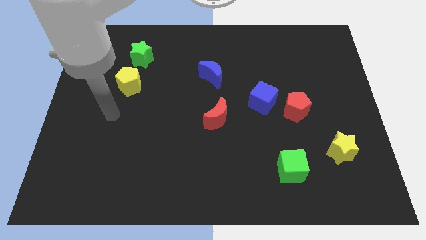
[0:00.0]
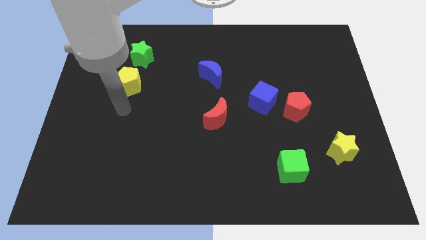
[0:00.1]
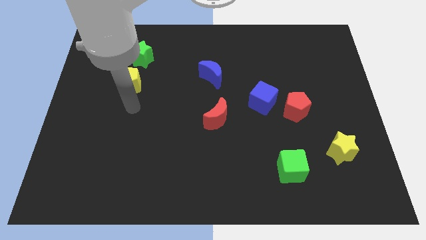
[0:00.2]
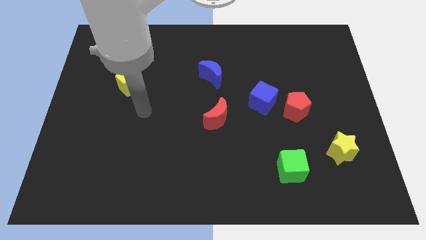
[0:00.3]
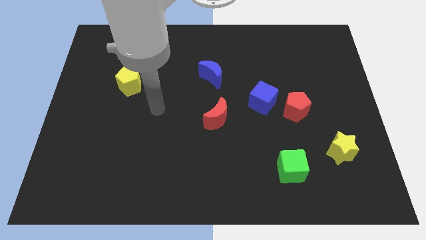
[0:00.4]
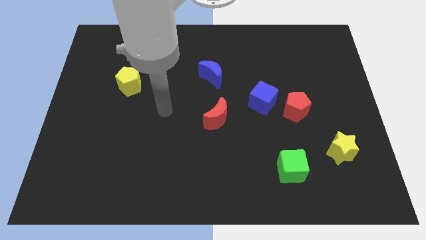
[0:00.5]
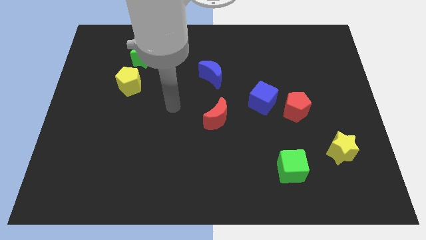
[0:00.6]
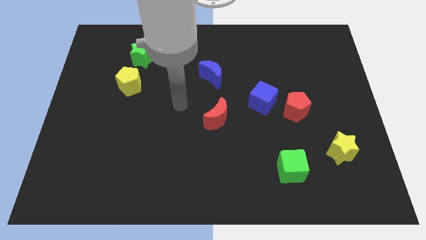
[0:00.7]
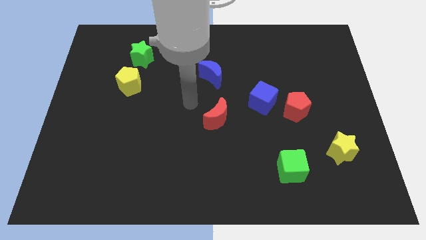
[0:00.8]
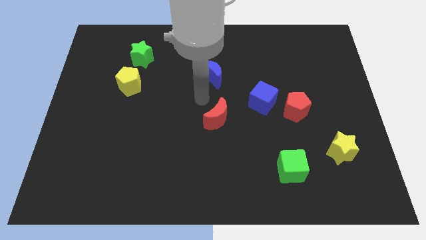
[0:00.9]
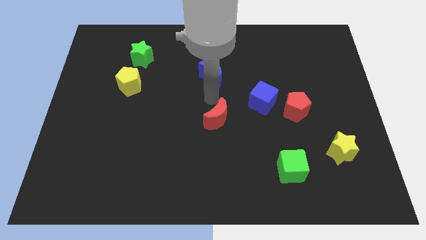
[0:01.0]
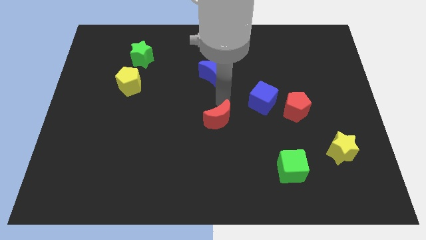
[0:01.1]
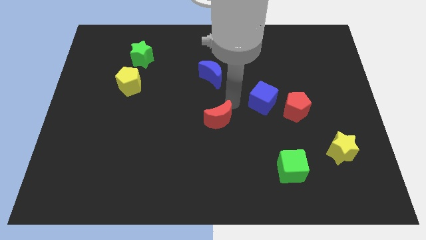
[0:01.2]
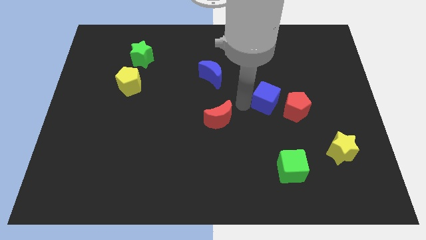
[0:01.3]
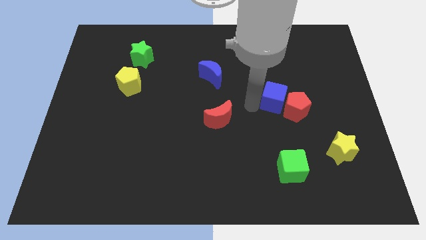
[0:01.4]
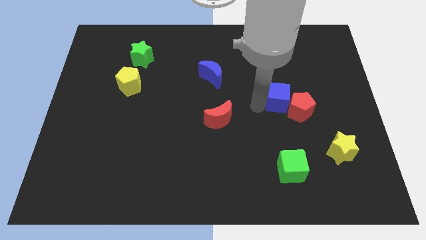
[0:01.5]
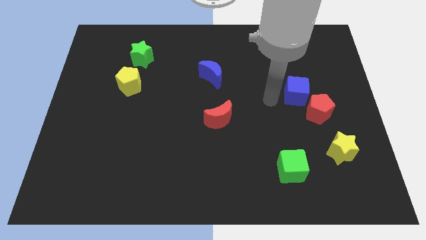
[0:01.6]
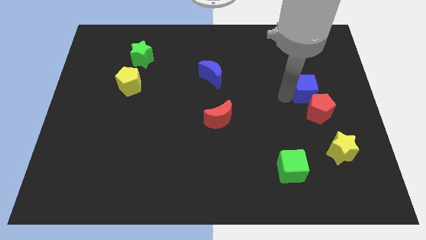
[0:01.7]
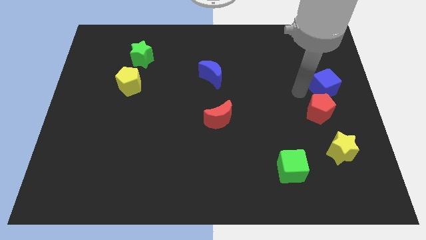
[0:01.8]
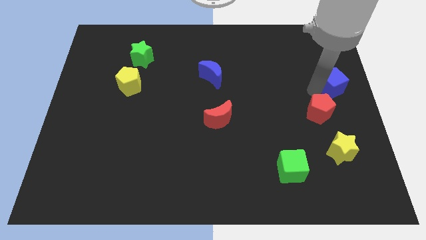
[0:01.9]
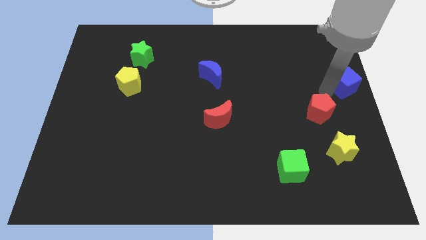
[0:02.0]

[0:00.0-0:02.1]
pull the red pentagon apart from the blue cube

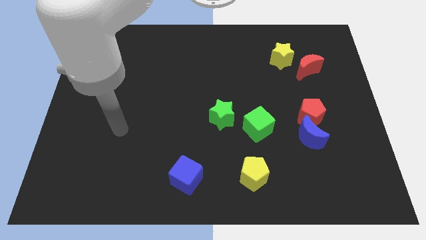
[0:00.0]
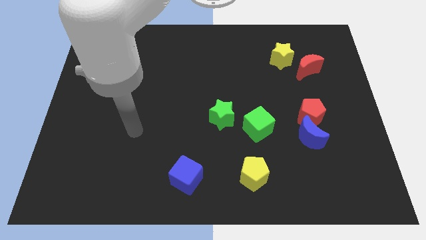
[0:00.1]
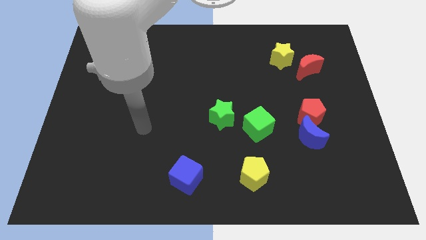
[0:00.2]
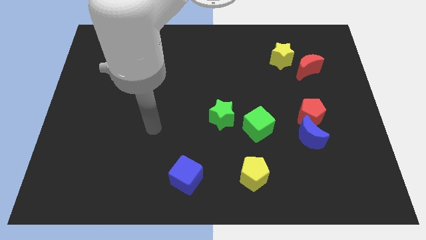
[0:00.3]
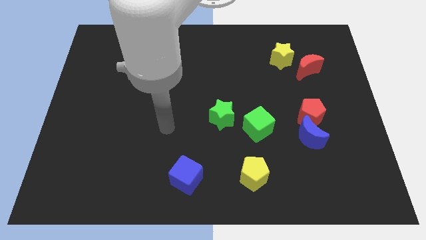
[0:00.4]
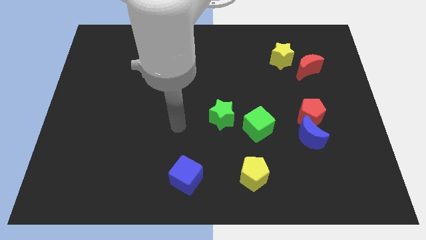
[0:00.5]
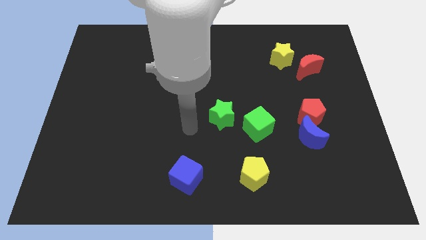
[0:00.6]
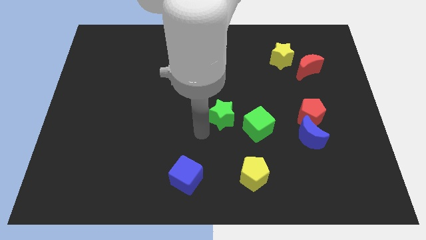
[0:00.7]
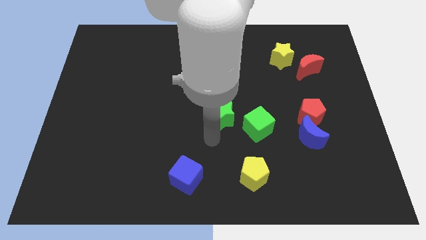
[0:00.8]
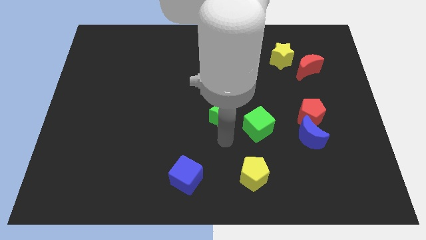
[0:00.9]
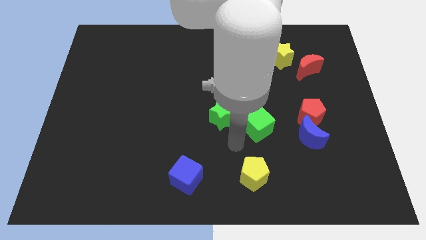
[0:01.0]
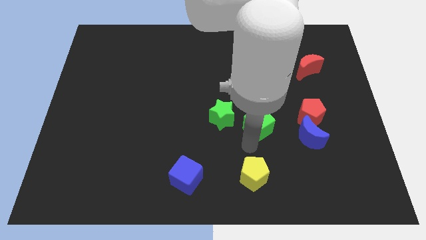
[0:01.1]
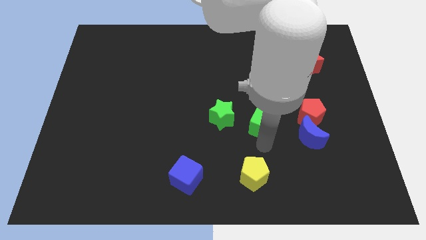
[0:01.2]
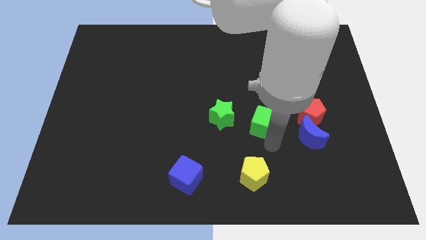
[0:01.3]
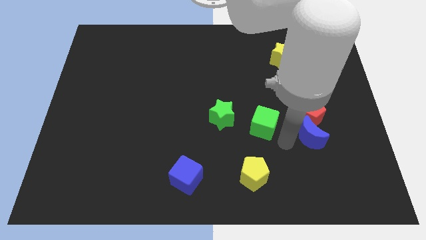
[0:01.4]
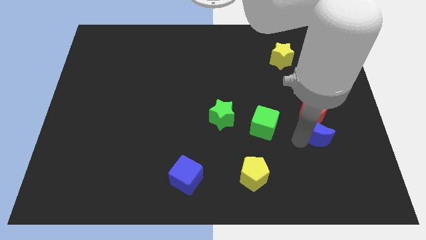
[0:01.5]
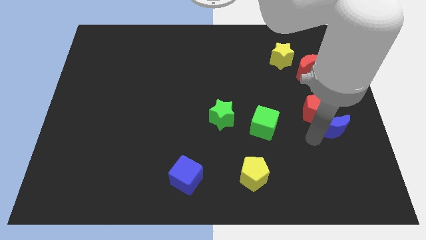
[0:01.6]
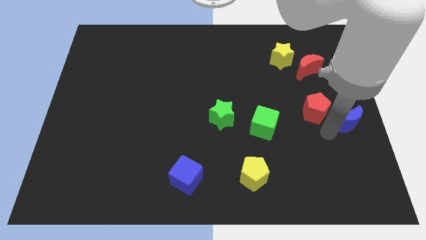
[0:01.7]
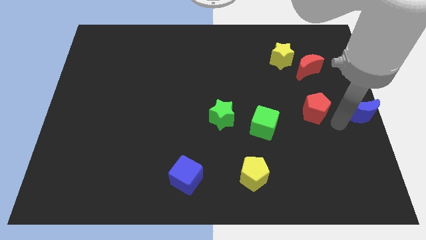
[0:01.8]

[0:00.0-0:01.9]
move the red pentagon away from the blue moon

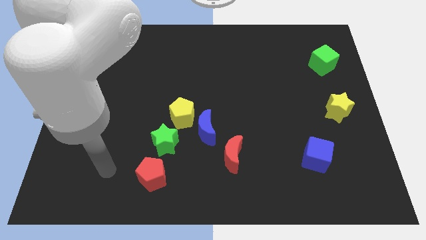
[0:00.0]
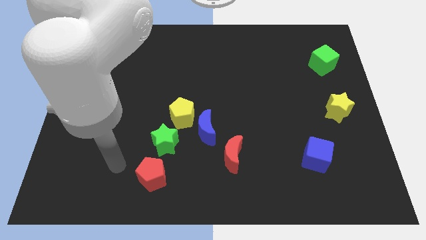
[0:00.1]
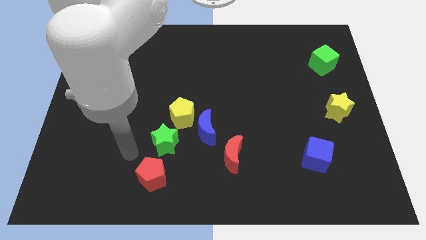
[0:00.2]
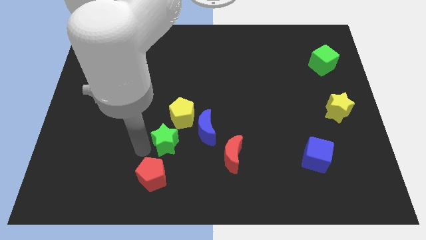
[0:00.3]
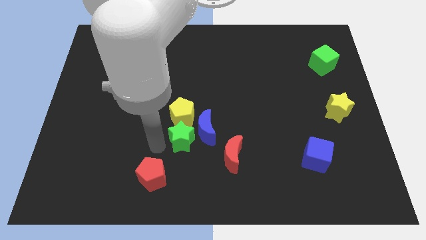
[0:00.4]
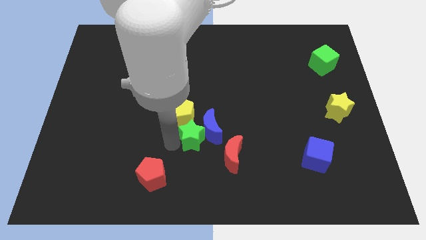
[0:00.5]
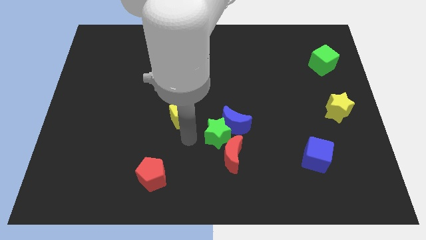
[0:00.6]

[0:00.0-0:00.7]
pull the yellow pentagon apart from the blue moon and green star

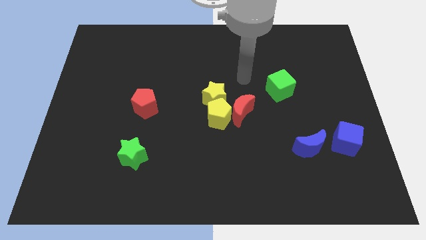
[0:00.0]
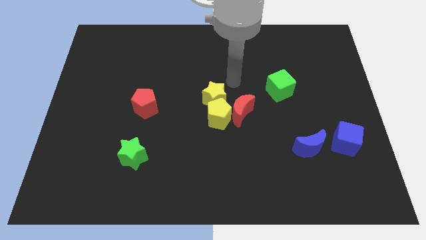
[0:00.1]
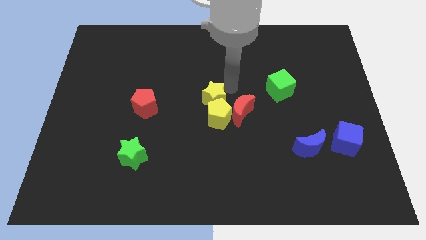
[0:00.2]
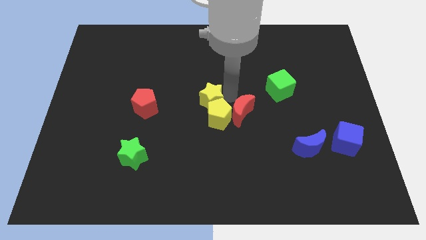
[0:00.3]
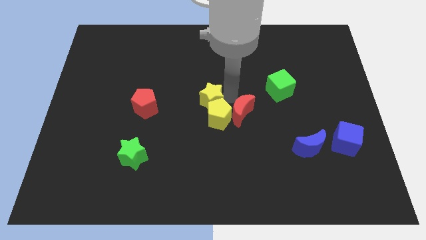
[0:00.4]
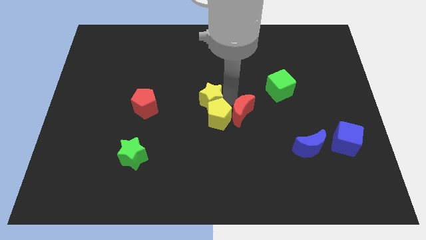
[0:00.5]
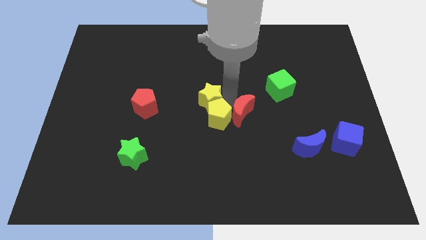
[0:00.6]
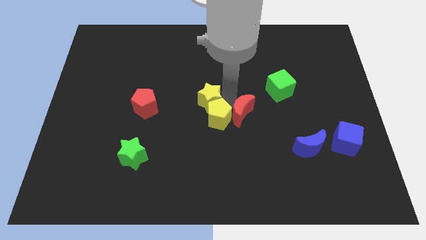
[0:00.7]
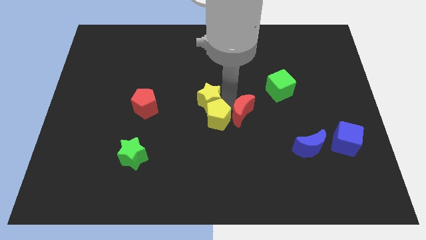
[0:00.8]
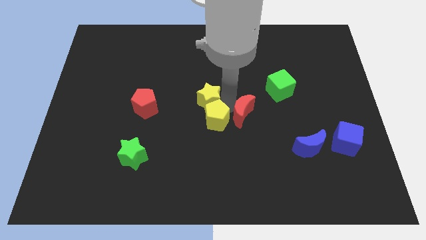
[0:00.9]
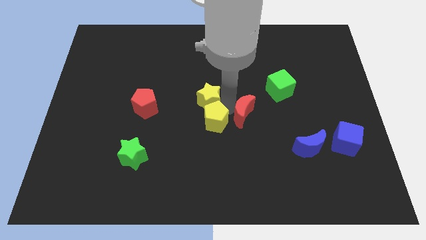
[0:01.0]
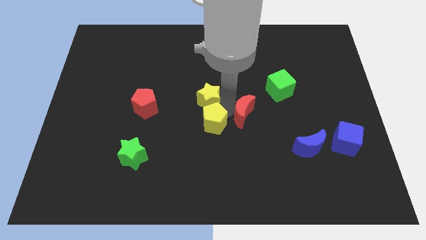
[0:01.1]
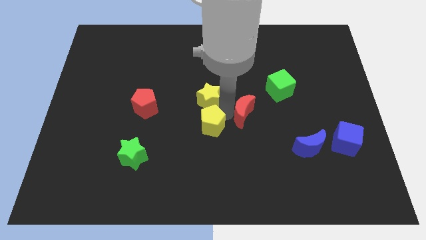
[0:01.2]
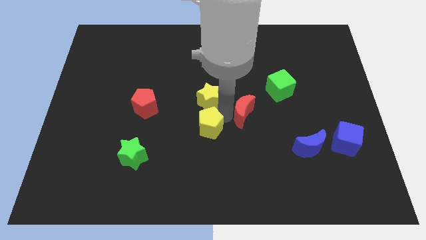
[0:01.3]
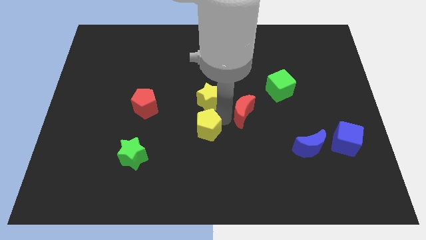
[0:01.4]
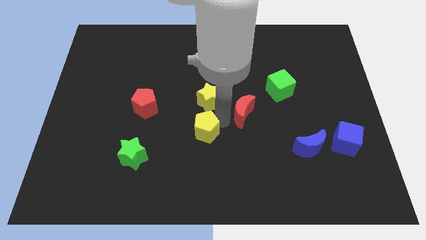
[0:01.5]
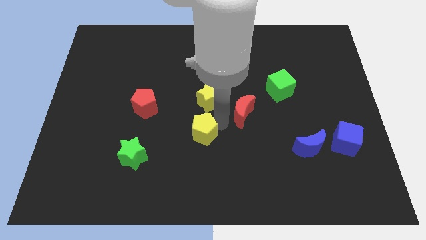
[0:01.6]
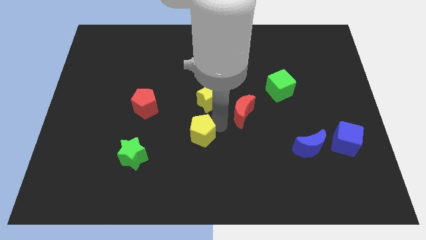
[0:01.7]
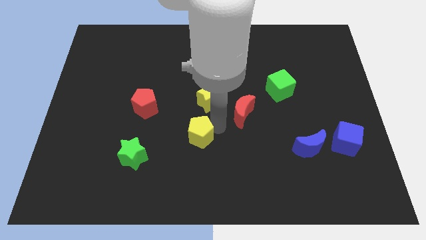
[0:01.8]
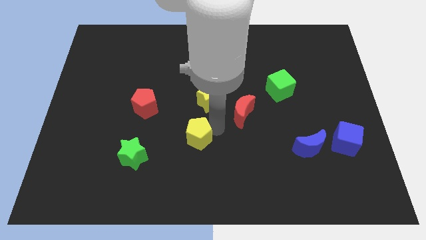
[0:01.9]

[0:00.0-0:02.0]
move the yellow pentagon away from the yellow star and red moon

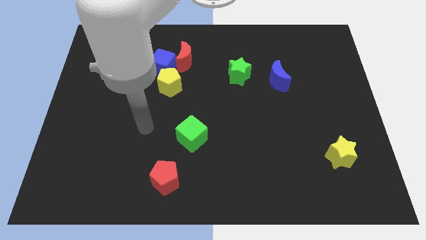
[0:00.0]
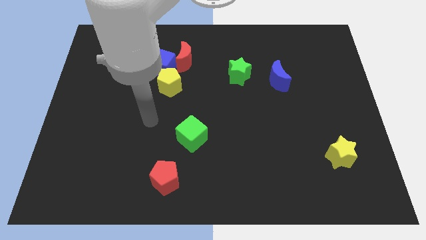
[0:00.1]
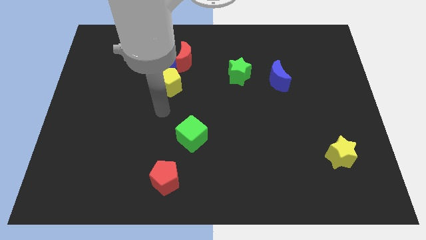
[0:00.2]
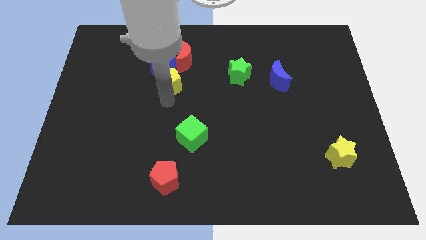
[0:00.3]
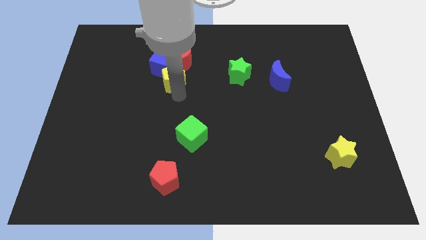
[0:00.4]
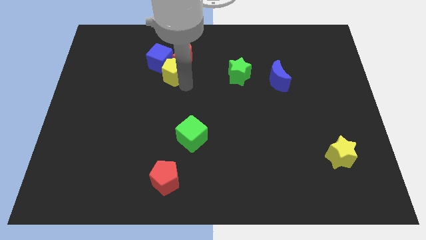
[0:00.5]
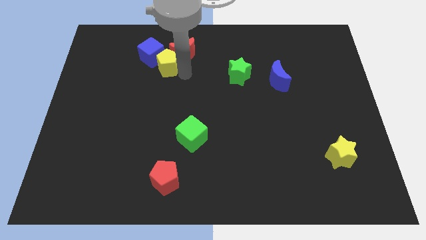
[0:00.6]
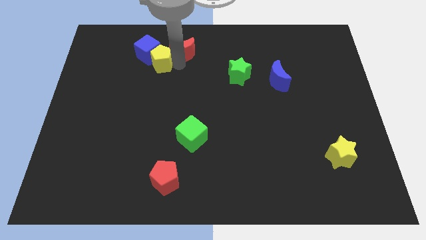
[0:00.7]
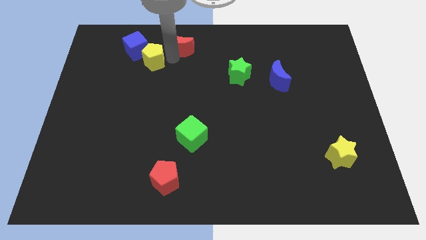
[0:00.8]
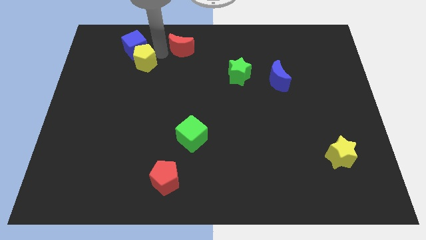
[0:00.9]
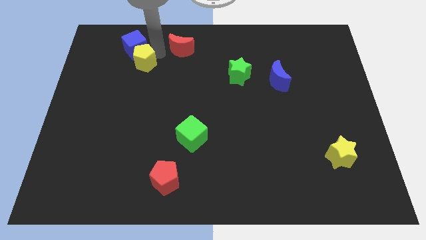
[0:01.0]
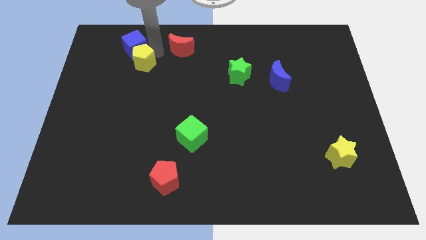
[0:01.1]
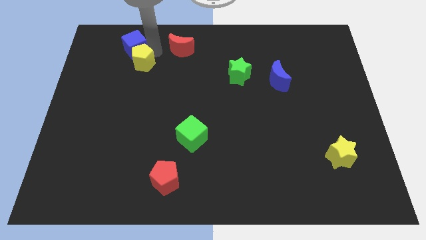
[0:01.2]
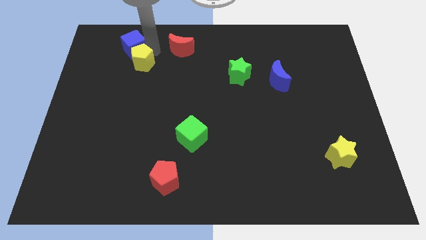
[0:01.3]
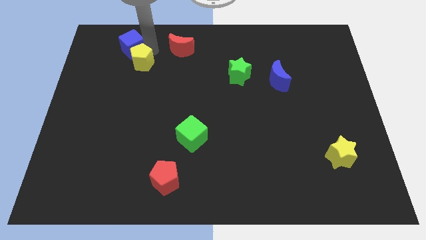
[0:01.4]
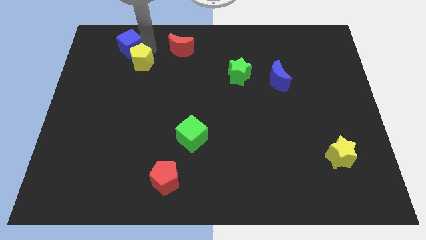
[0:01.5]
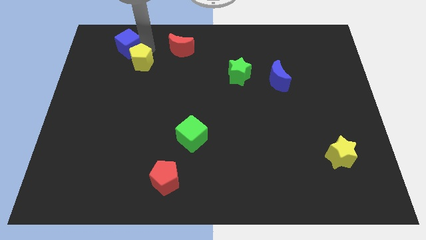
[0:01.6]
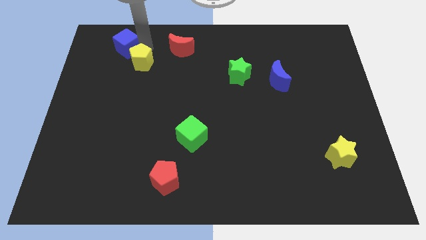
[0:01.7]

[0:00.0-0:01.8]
separate the blue cube from the red moon and yellow pentagon

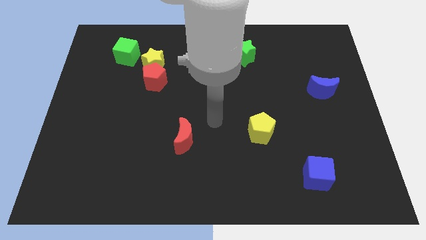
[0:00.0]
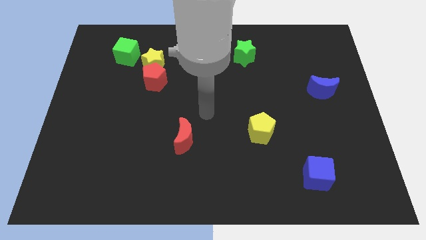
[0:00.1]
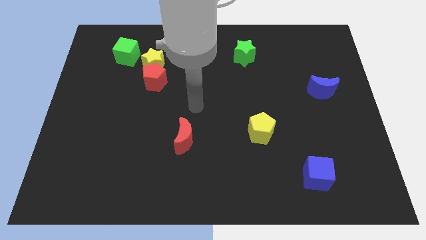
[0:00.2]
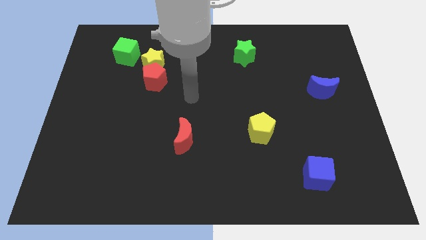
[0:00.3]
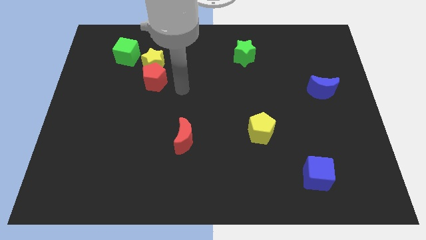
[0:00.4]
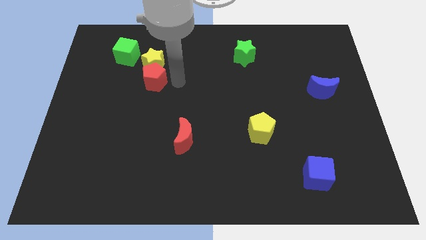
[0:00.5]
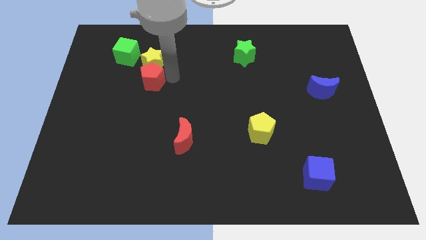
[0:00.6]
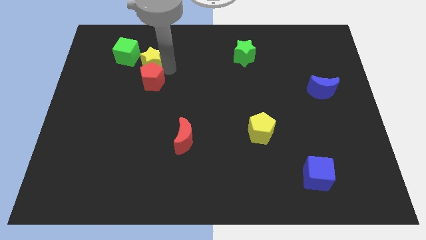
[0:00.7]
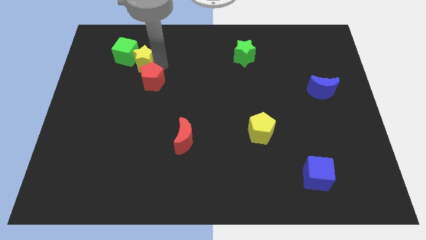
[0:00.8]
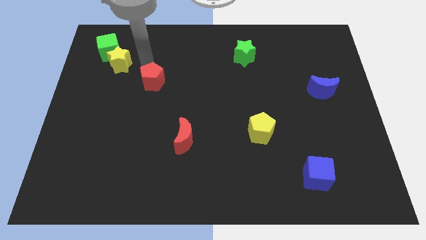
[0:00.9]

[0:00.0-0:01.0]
separate the red pentagon from the yellow star
